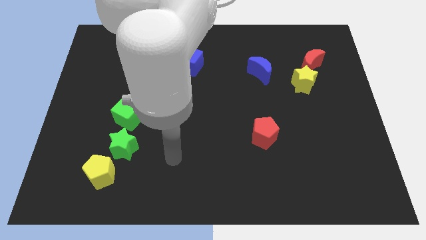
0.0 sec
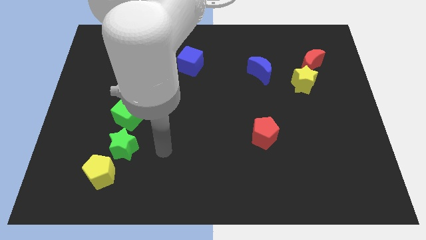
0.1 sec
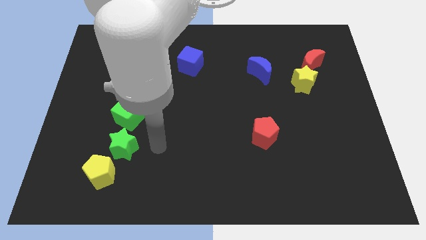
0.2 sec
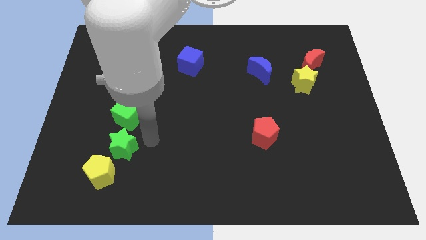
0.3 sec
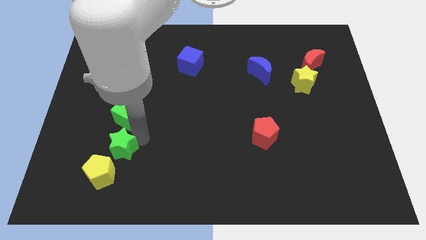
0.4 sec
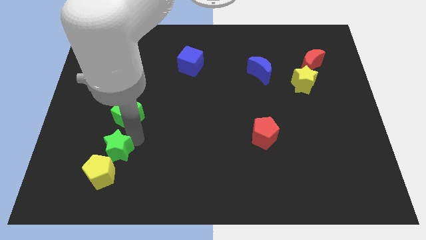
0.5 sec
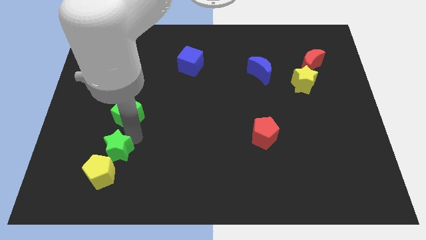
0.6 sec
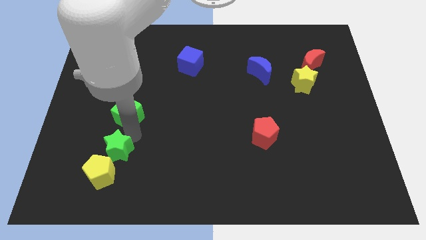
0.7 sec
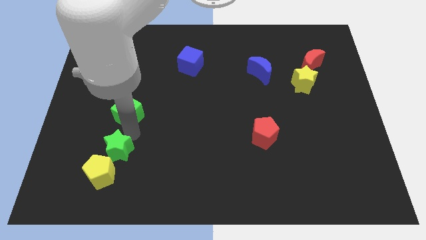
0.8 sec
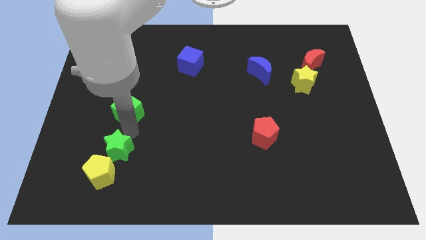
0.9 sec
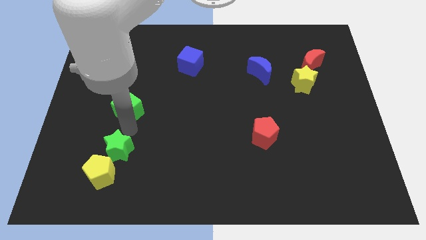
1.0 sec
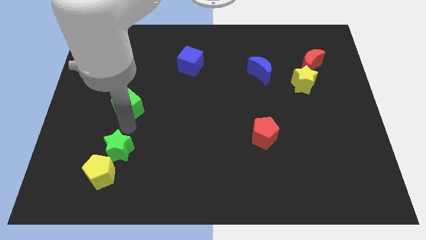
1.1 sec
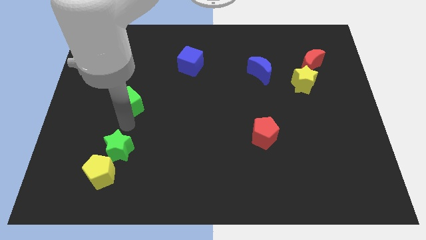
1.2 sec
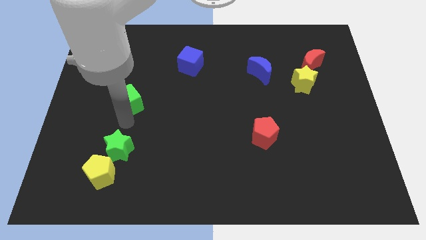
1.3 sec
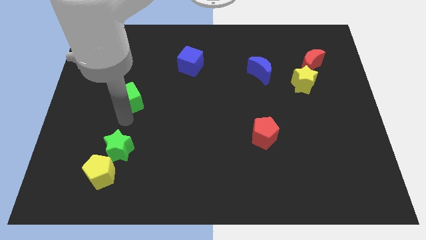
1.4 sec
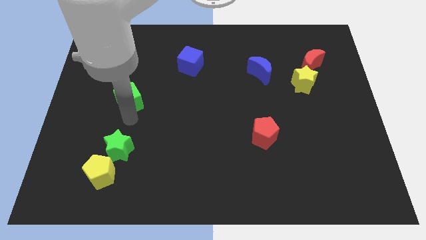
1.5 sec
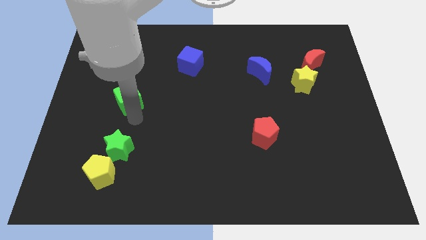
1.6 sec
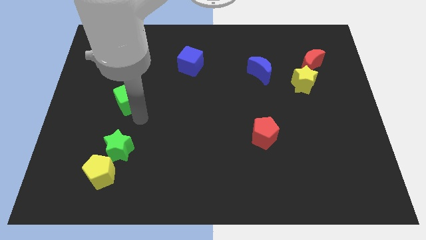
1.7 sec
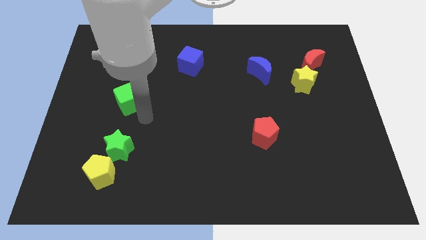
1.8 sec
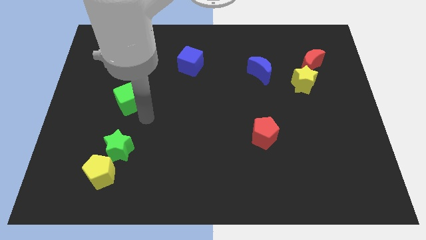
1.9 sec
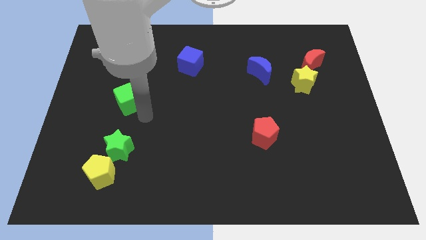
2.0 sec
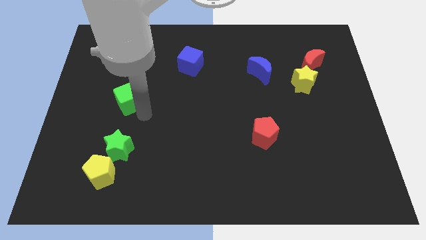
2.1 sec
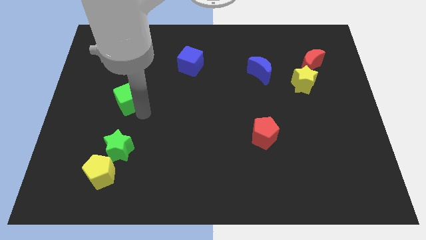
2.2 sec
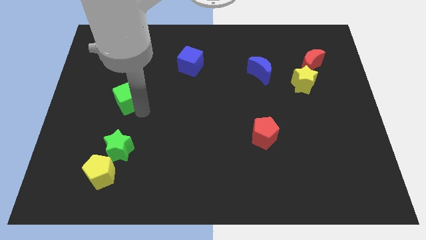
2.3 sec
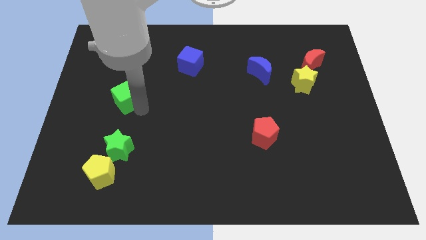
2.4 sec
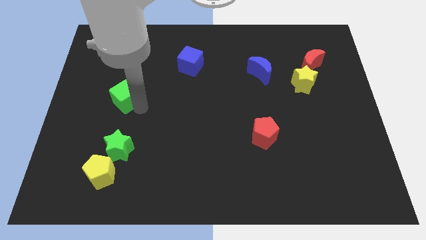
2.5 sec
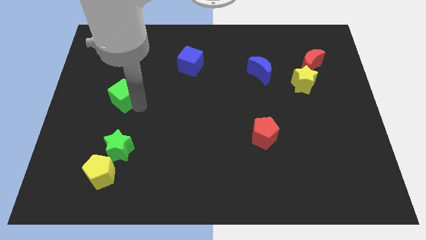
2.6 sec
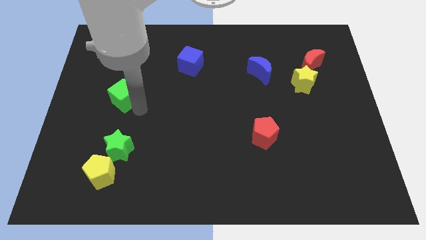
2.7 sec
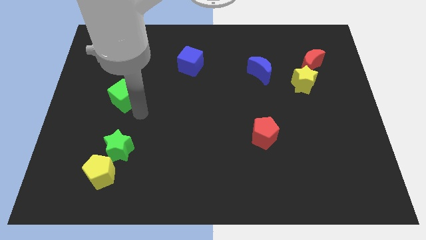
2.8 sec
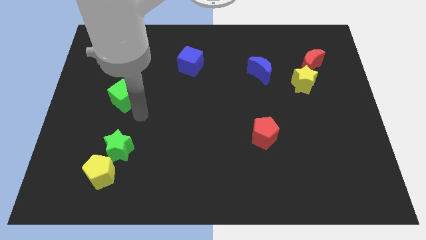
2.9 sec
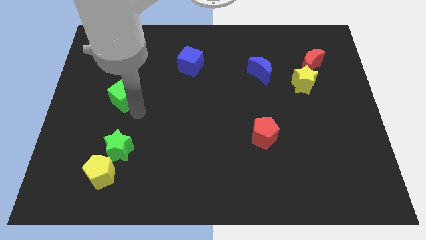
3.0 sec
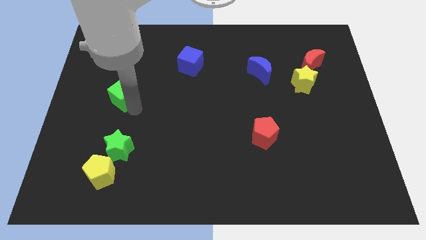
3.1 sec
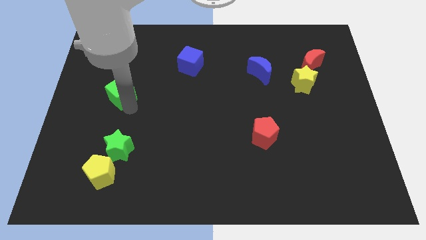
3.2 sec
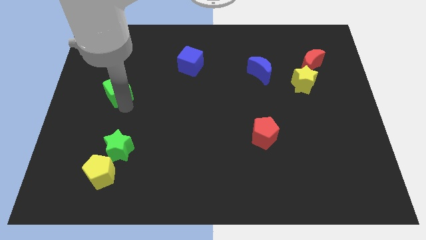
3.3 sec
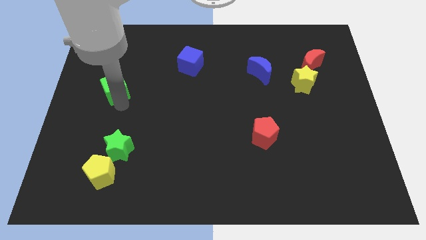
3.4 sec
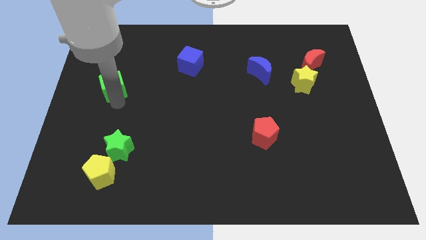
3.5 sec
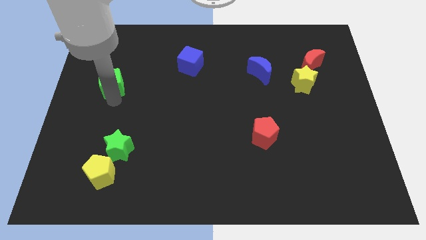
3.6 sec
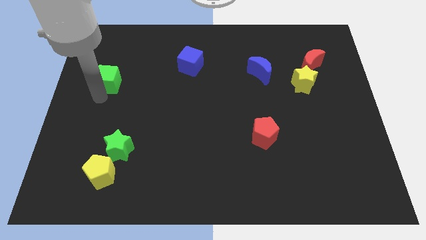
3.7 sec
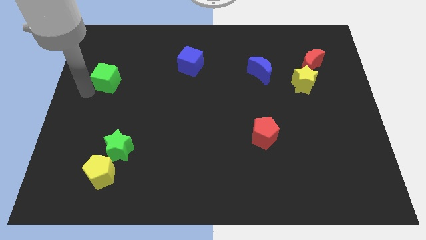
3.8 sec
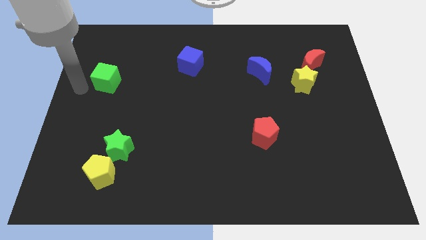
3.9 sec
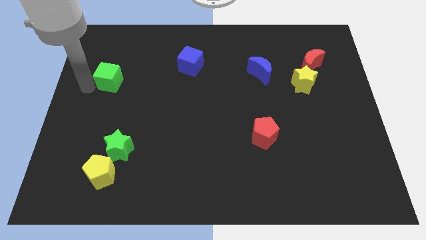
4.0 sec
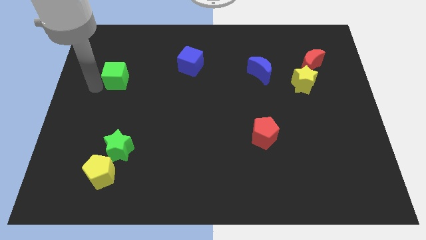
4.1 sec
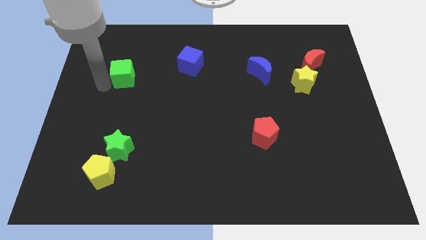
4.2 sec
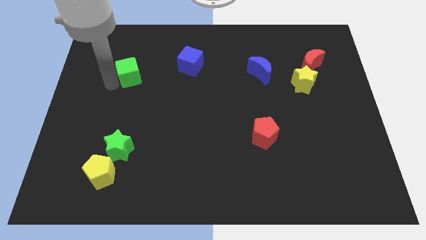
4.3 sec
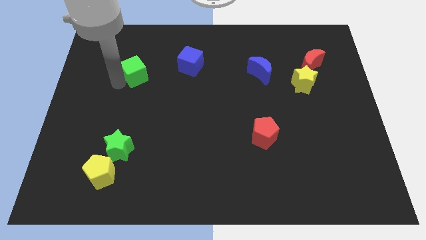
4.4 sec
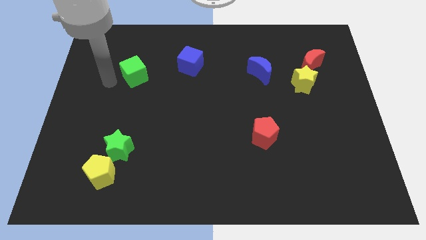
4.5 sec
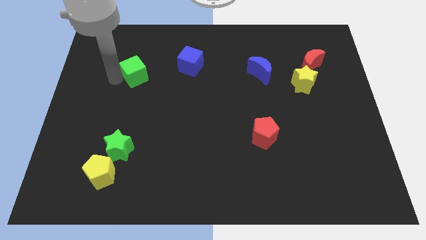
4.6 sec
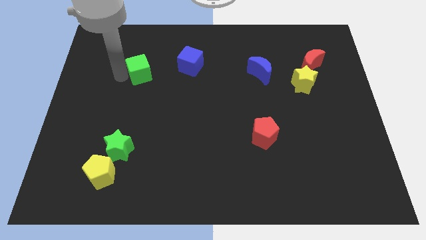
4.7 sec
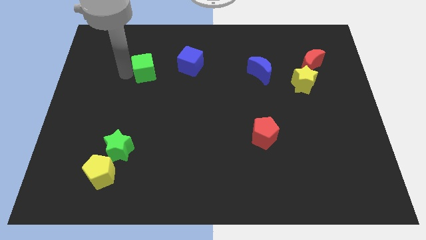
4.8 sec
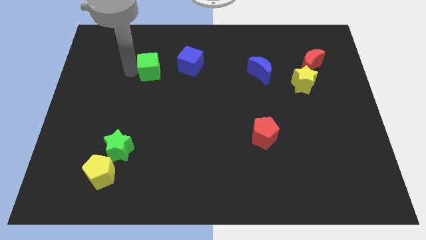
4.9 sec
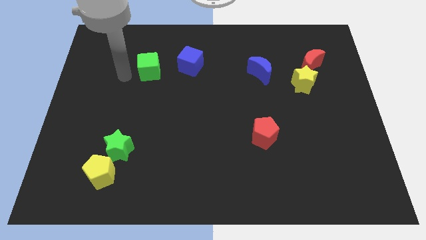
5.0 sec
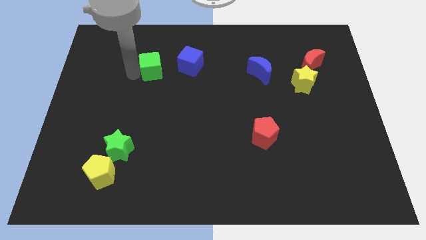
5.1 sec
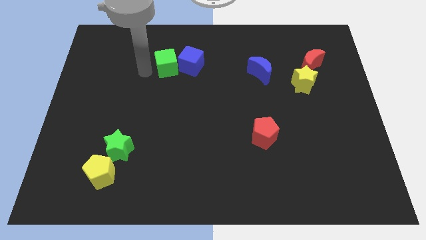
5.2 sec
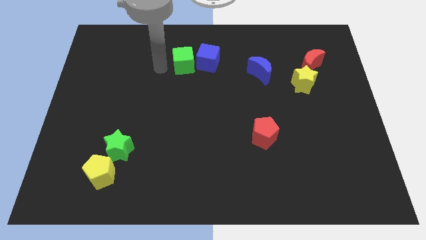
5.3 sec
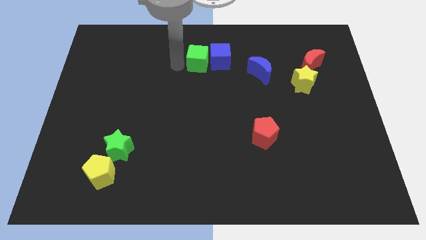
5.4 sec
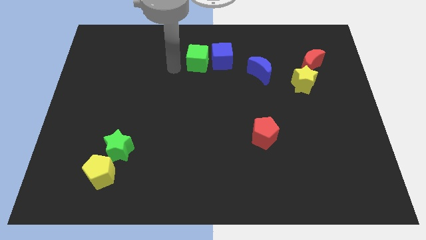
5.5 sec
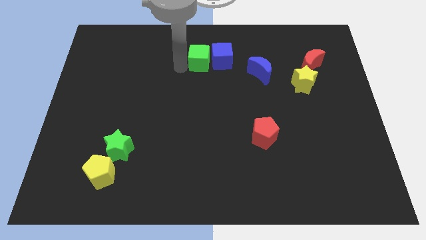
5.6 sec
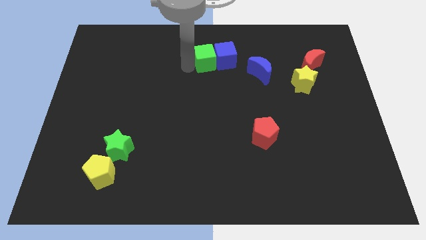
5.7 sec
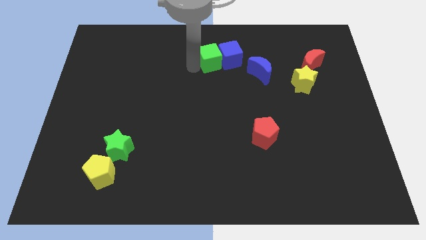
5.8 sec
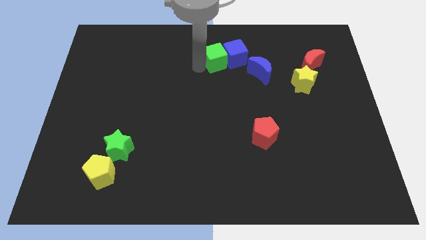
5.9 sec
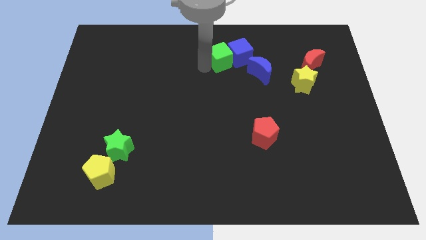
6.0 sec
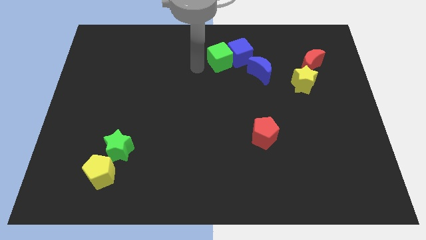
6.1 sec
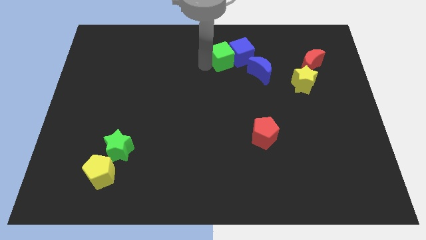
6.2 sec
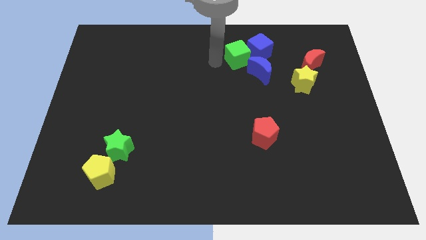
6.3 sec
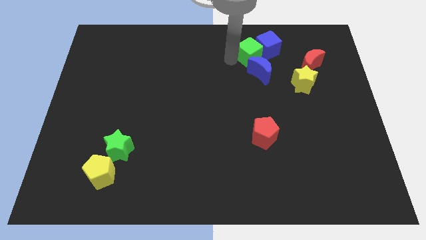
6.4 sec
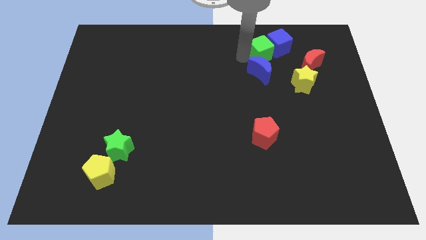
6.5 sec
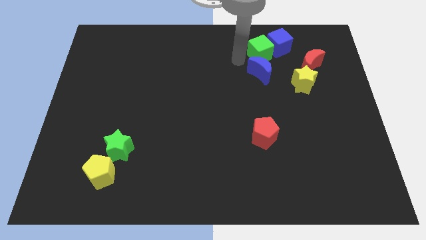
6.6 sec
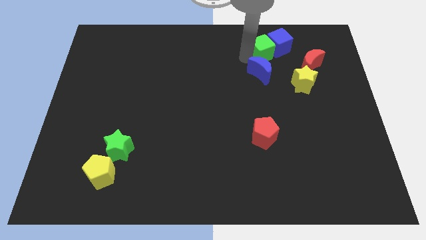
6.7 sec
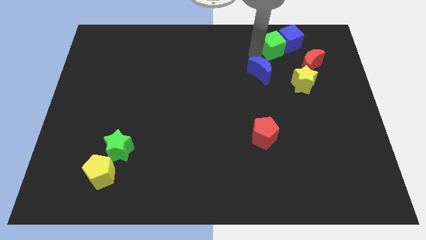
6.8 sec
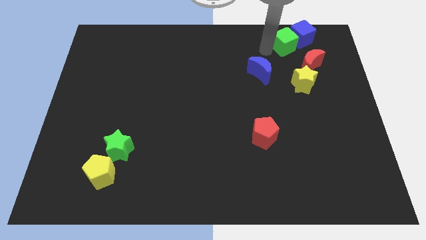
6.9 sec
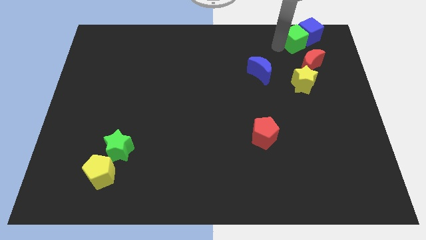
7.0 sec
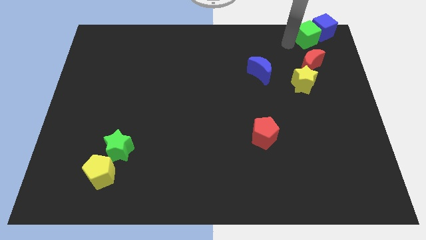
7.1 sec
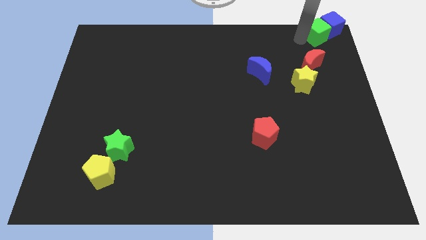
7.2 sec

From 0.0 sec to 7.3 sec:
push the green cube to the top right
